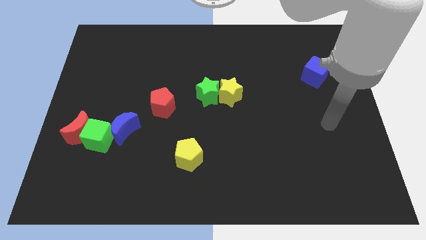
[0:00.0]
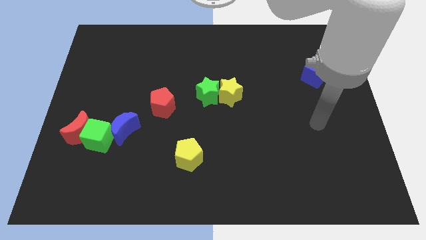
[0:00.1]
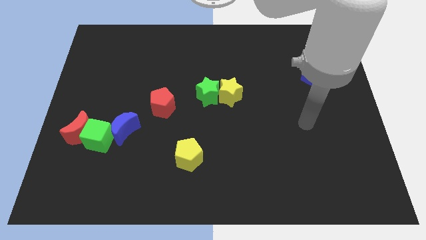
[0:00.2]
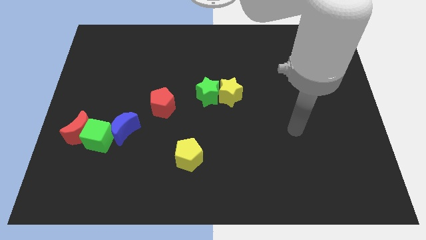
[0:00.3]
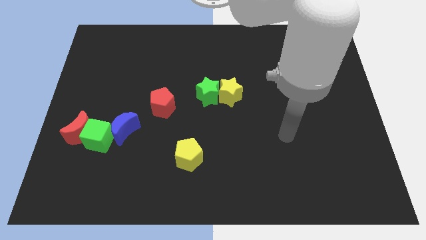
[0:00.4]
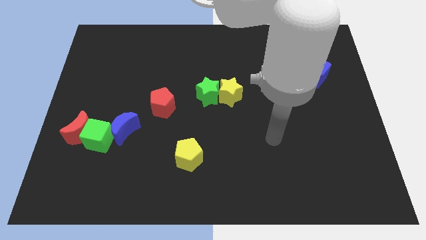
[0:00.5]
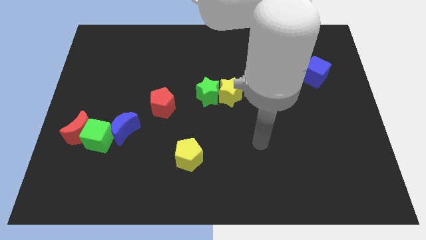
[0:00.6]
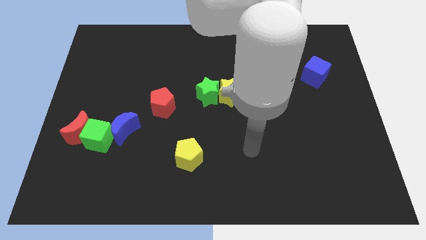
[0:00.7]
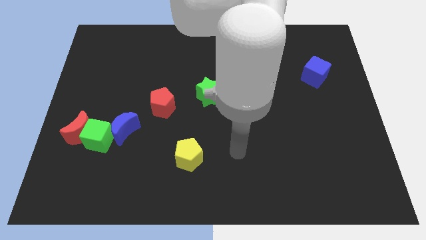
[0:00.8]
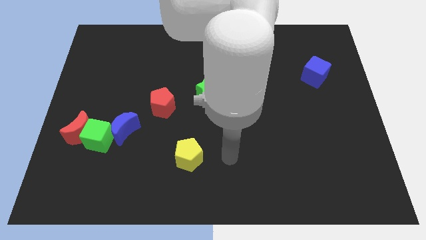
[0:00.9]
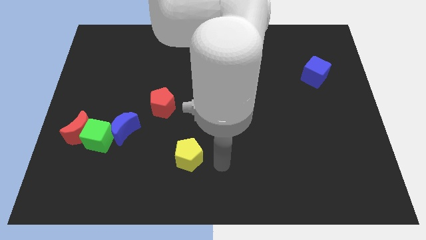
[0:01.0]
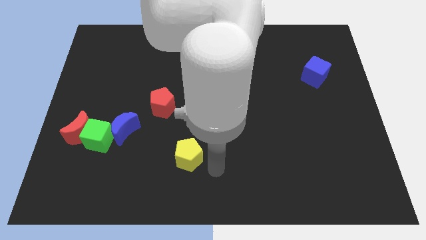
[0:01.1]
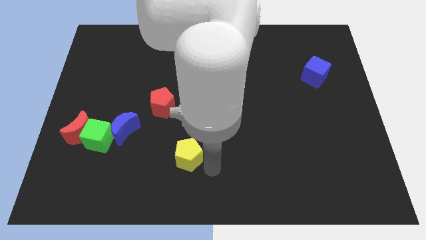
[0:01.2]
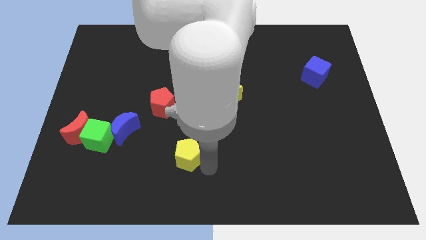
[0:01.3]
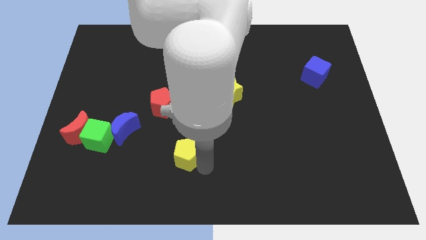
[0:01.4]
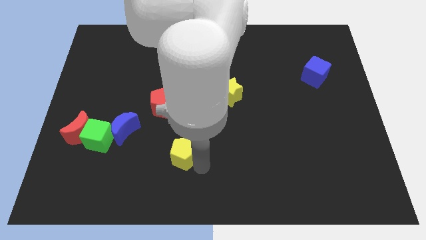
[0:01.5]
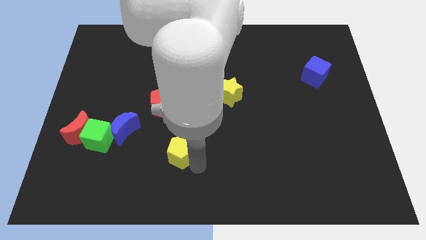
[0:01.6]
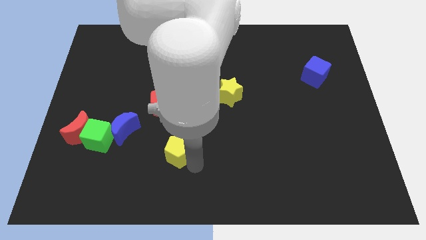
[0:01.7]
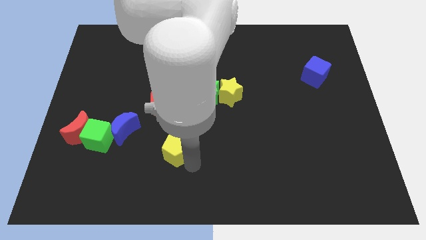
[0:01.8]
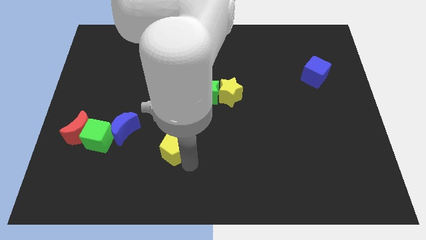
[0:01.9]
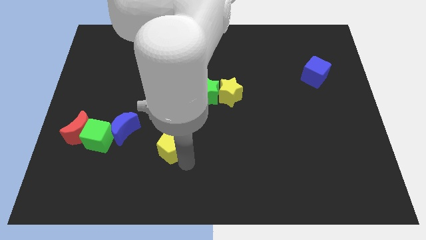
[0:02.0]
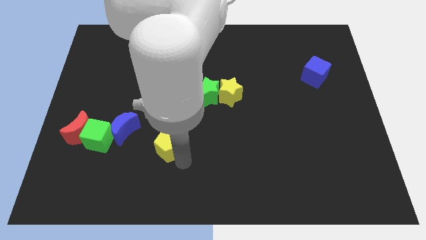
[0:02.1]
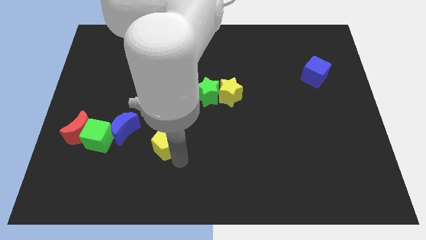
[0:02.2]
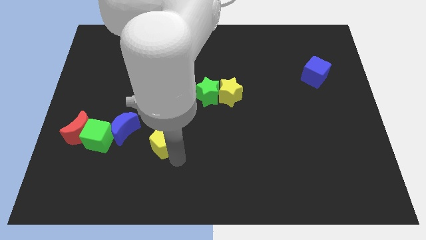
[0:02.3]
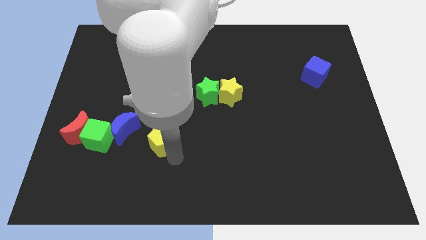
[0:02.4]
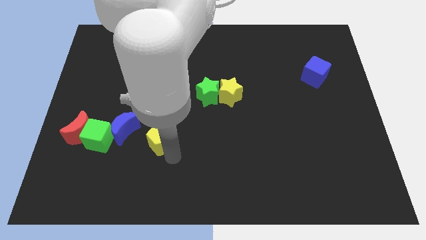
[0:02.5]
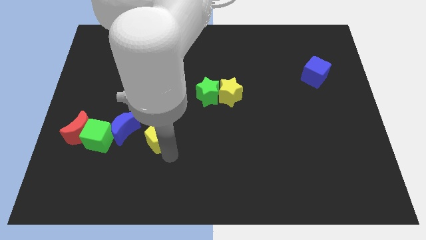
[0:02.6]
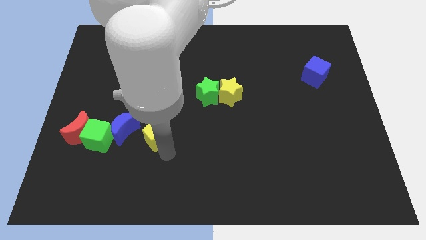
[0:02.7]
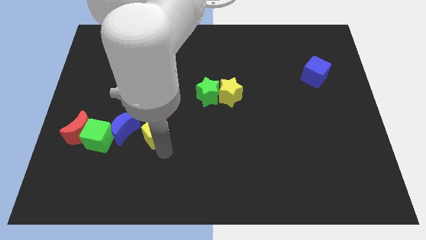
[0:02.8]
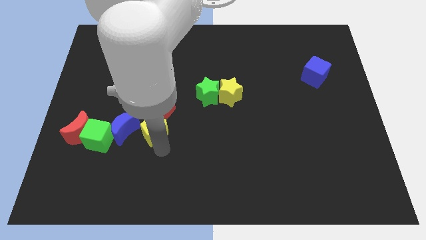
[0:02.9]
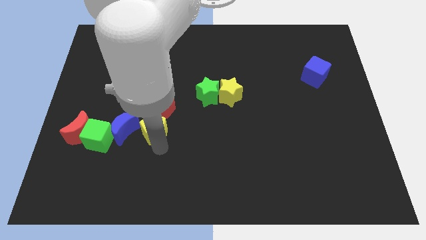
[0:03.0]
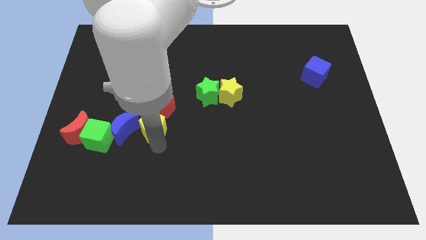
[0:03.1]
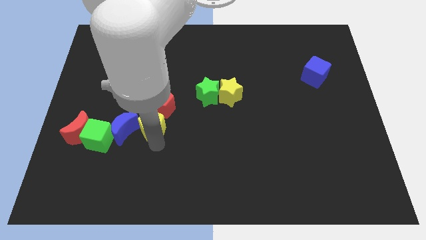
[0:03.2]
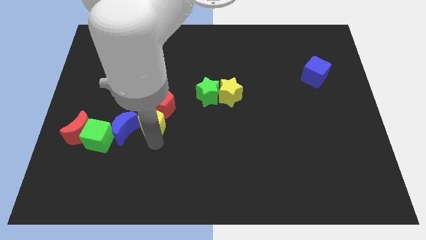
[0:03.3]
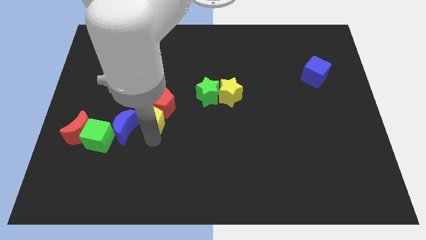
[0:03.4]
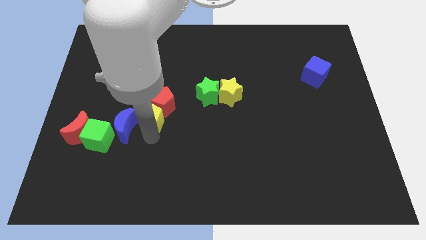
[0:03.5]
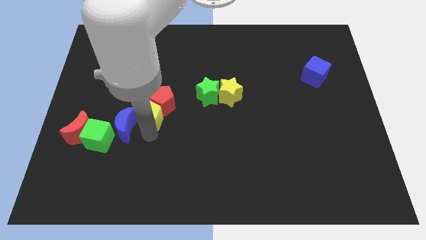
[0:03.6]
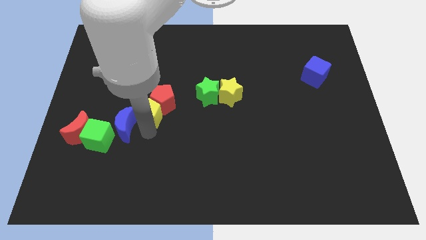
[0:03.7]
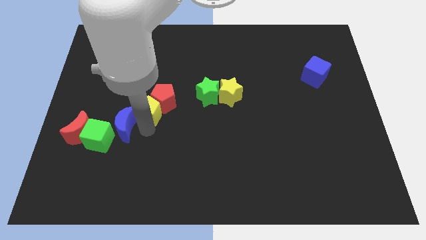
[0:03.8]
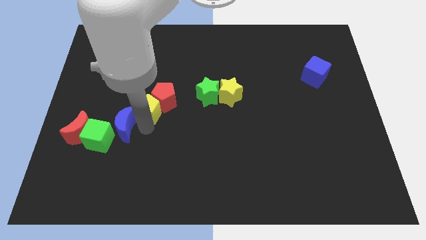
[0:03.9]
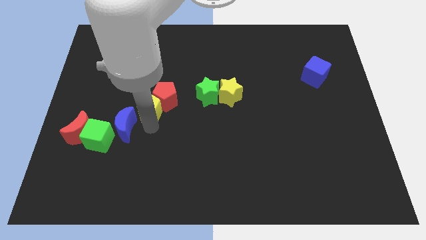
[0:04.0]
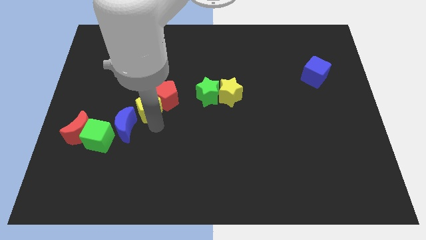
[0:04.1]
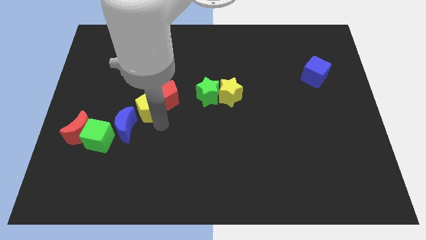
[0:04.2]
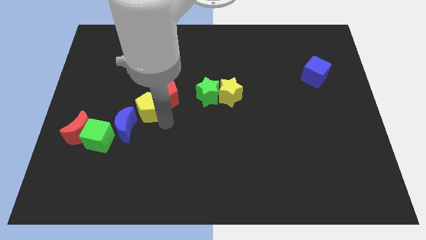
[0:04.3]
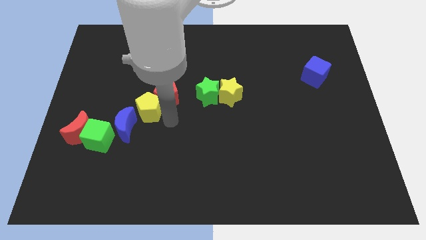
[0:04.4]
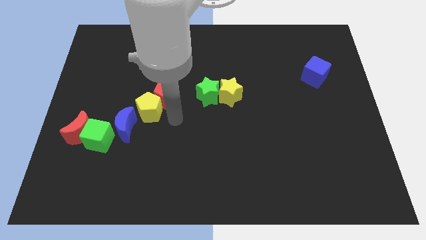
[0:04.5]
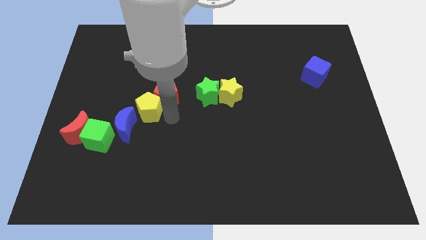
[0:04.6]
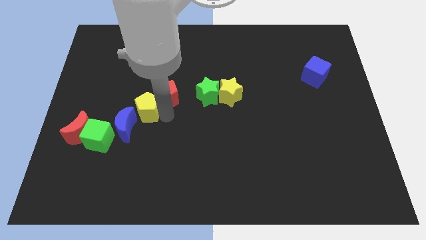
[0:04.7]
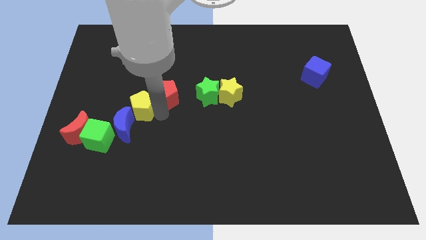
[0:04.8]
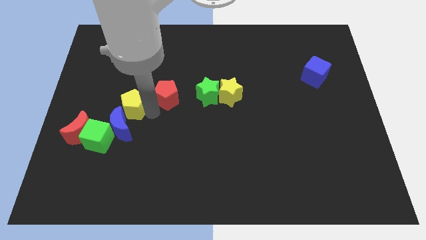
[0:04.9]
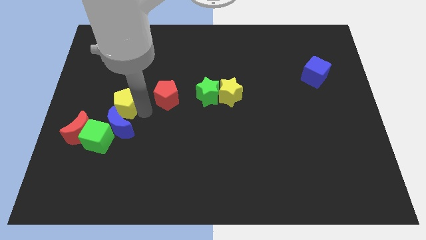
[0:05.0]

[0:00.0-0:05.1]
move the yellow pentagon upwards and to the left

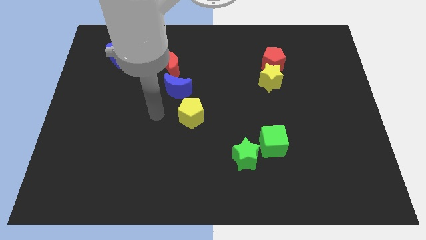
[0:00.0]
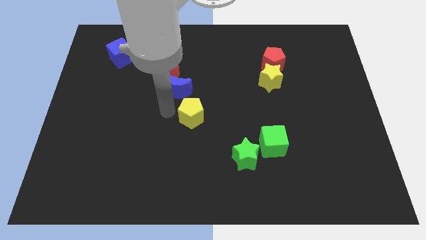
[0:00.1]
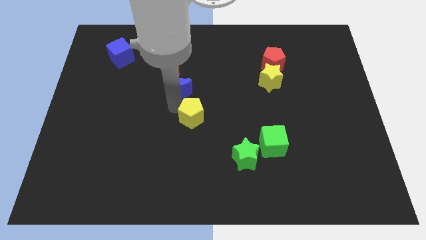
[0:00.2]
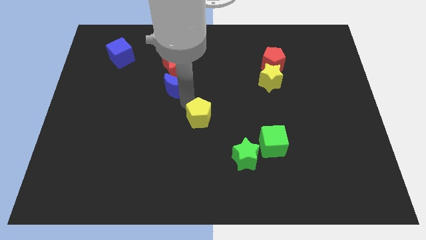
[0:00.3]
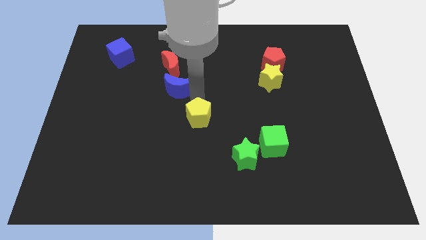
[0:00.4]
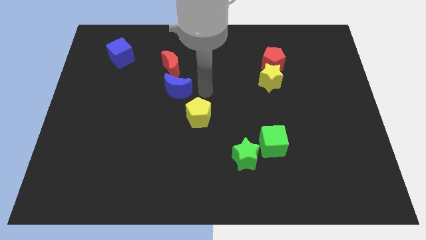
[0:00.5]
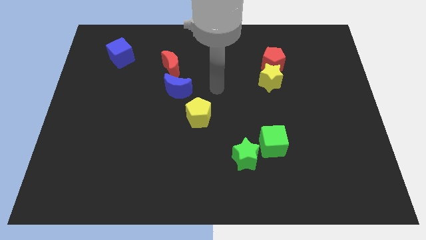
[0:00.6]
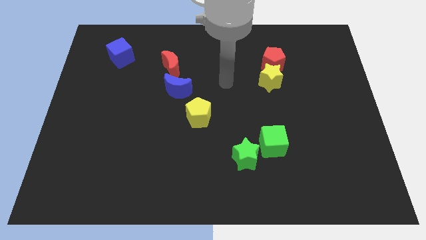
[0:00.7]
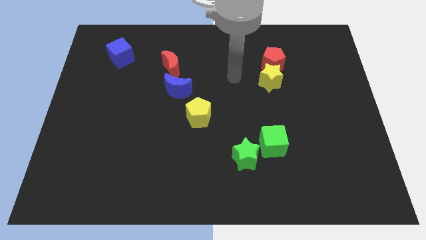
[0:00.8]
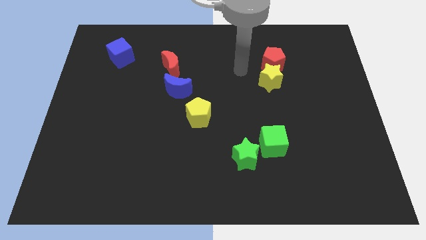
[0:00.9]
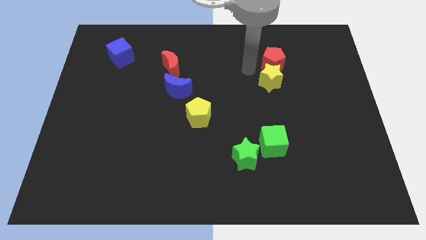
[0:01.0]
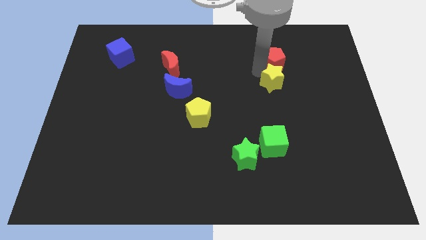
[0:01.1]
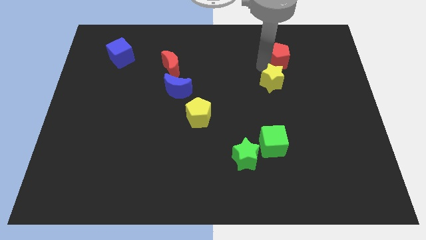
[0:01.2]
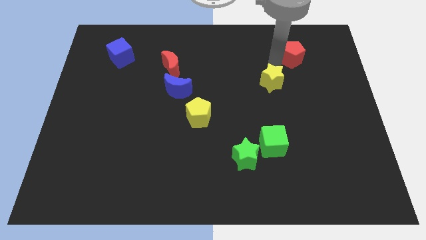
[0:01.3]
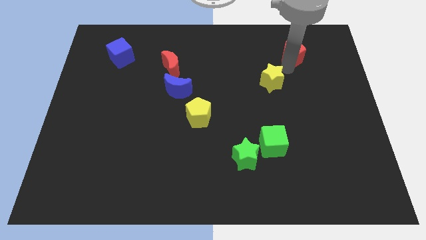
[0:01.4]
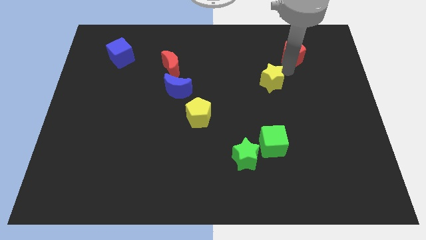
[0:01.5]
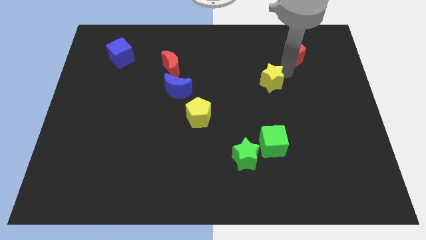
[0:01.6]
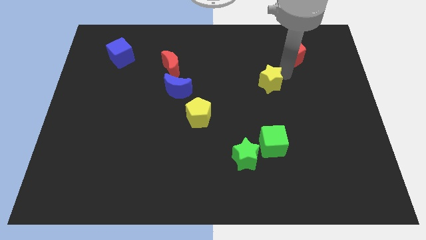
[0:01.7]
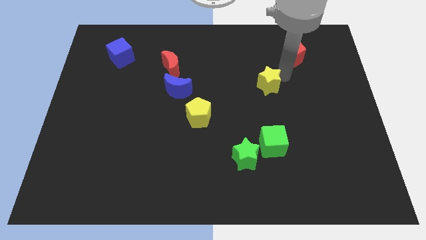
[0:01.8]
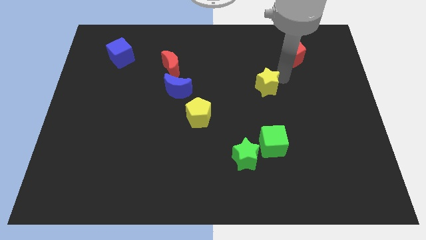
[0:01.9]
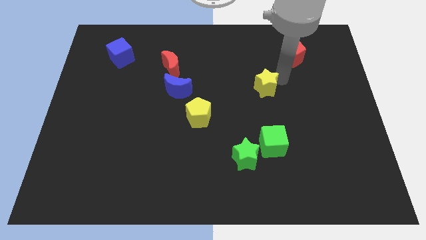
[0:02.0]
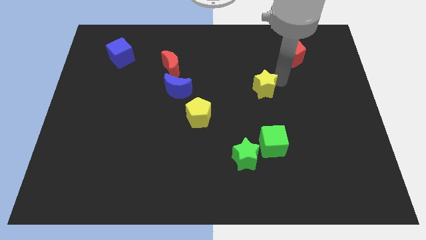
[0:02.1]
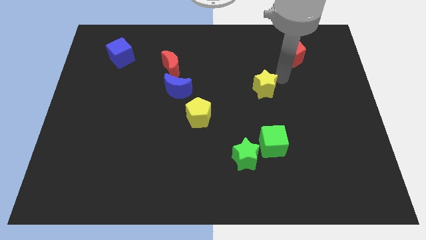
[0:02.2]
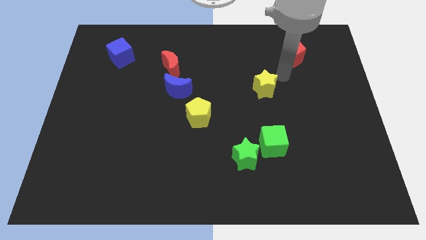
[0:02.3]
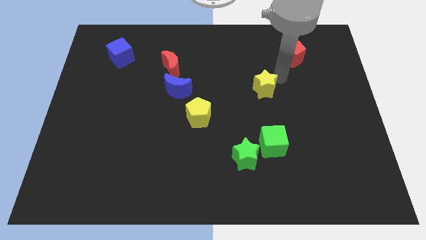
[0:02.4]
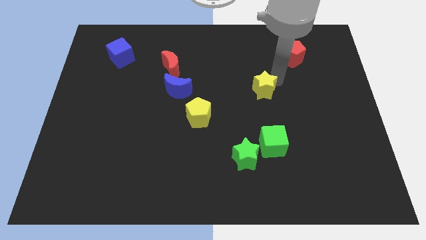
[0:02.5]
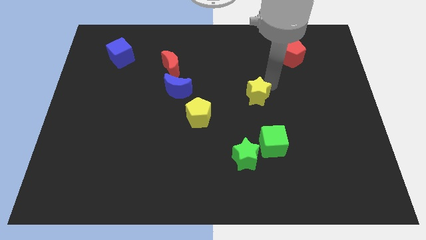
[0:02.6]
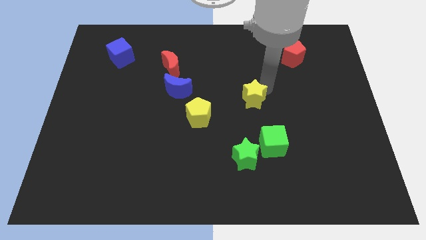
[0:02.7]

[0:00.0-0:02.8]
slightly move the yellow star diagonally down and left

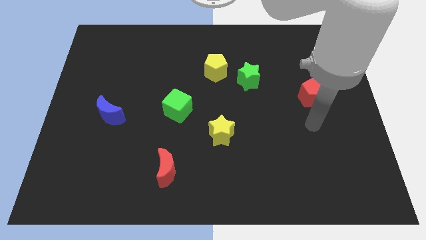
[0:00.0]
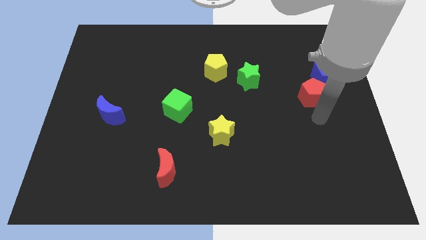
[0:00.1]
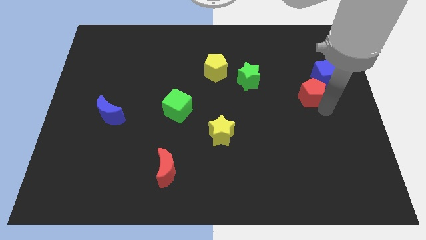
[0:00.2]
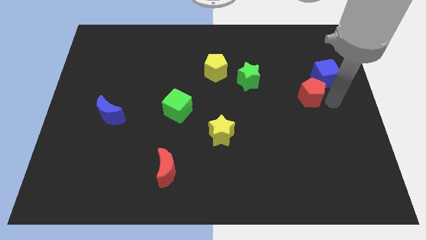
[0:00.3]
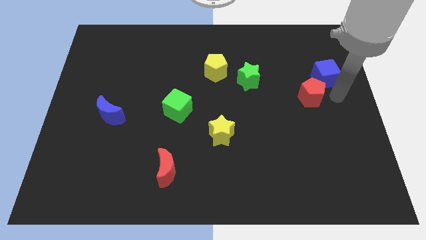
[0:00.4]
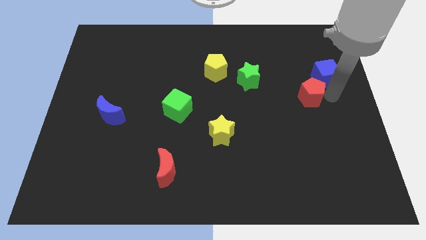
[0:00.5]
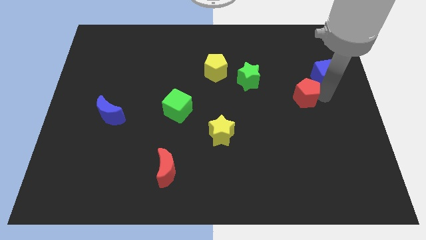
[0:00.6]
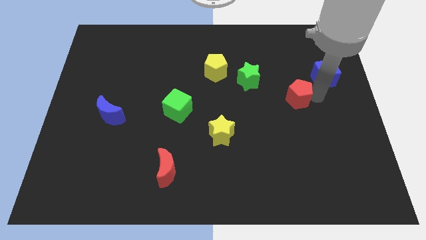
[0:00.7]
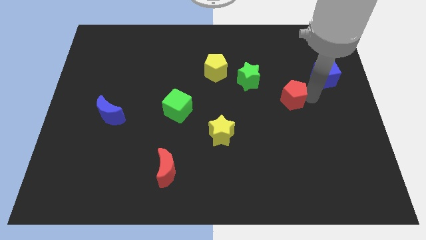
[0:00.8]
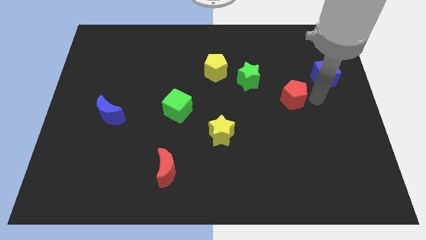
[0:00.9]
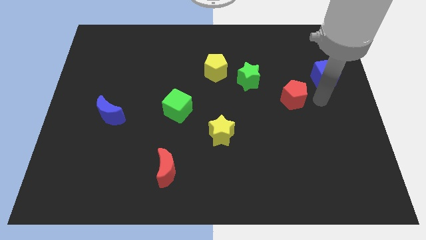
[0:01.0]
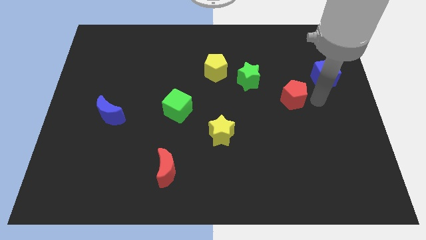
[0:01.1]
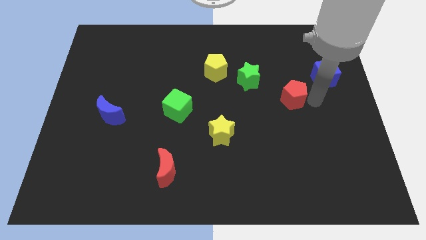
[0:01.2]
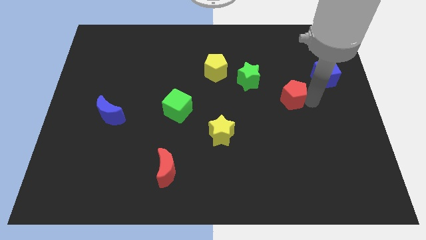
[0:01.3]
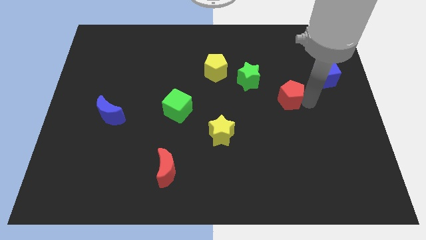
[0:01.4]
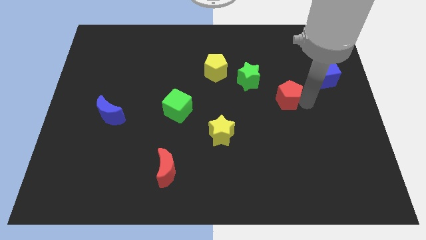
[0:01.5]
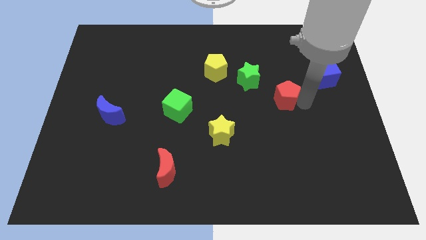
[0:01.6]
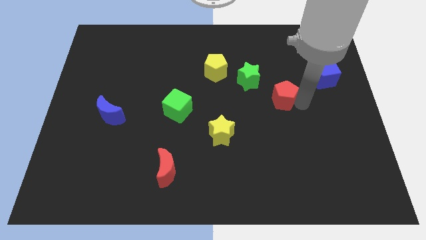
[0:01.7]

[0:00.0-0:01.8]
push the red pentagon to the left somewhat
